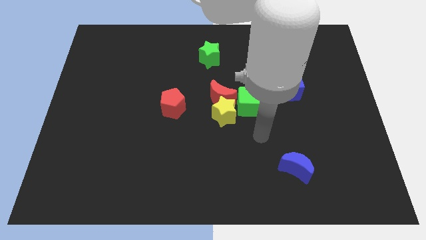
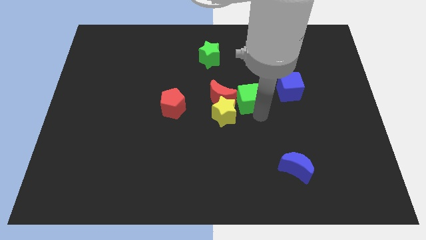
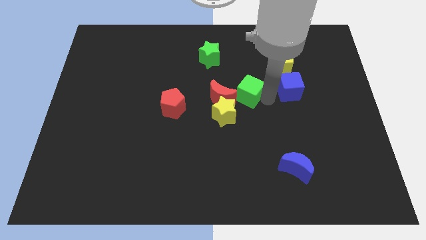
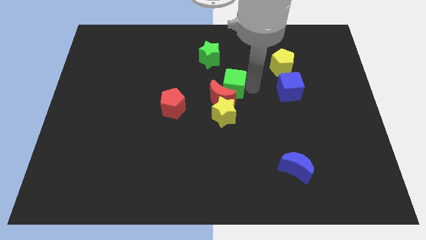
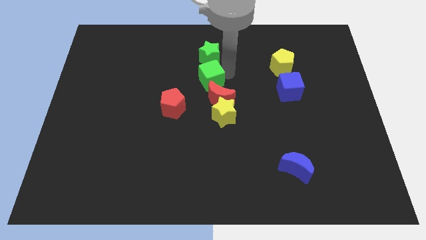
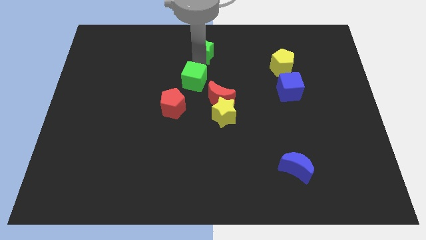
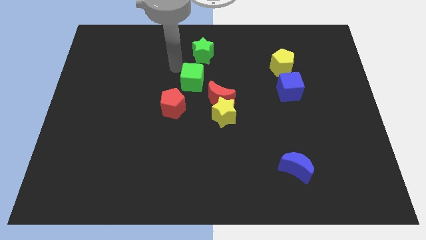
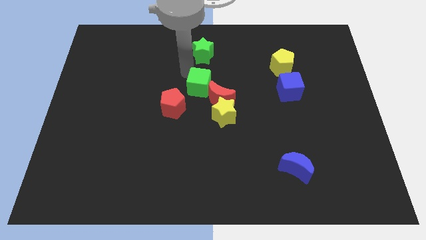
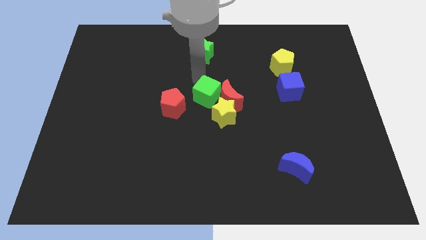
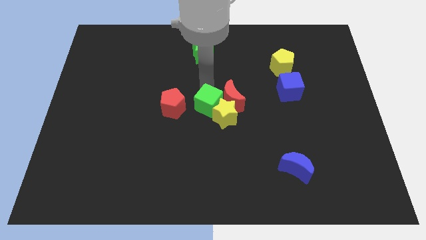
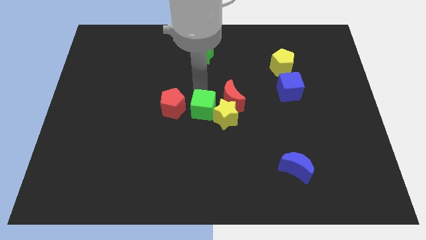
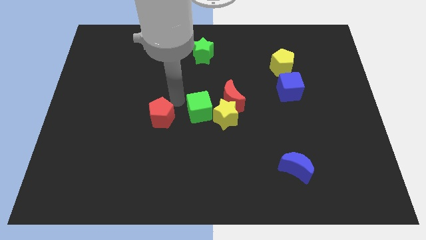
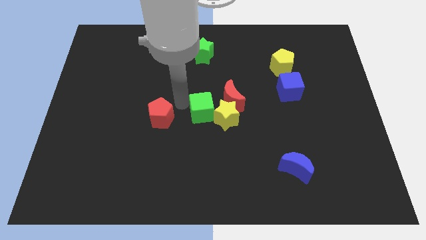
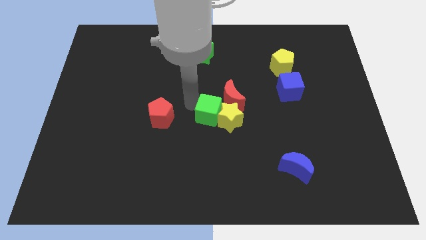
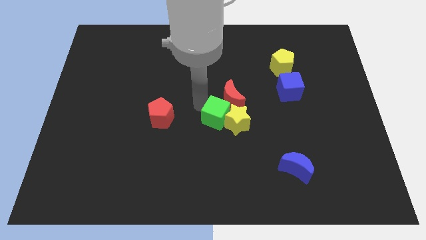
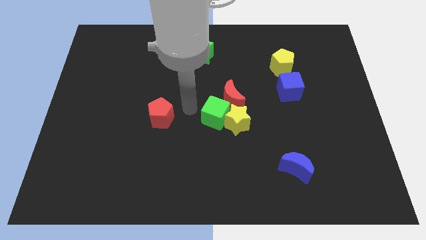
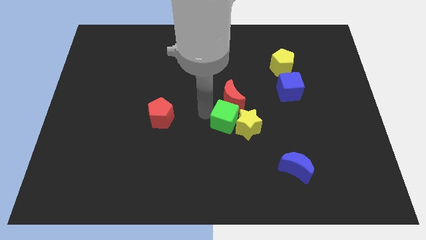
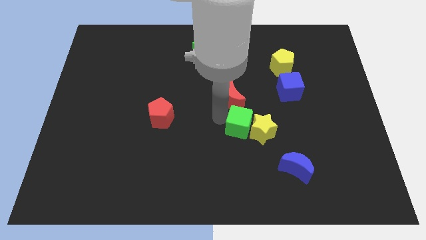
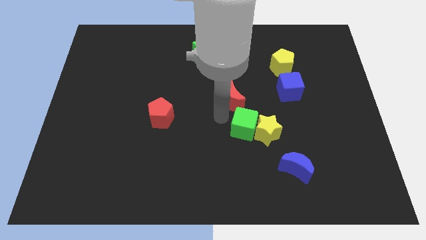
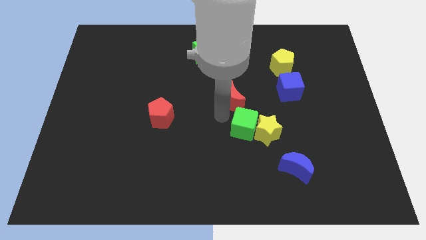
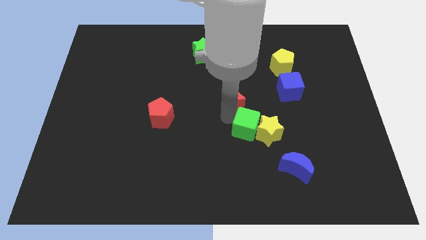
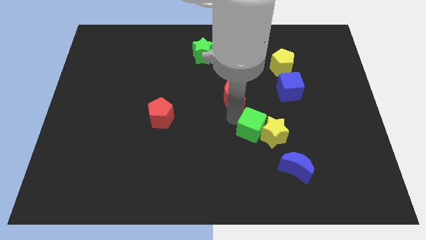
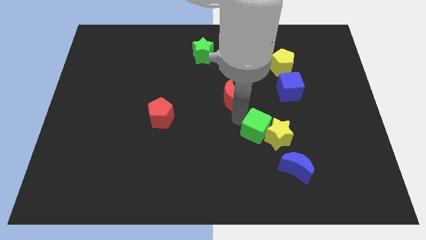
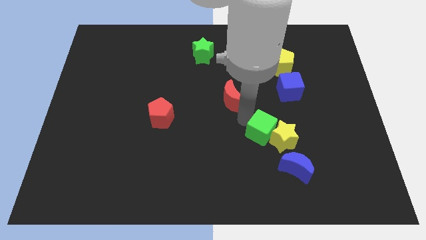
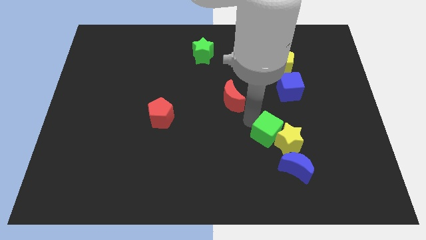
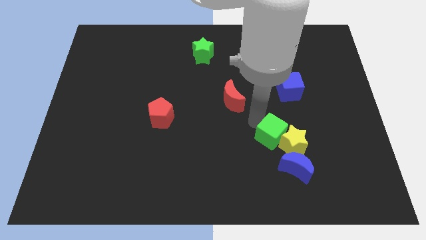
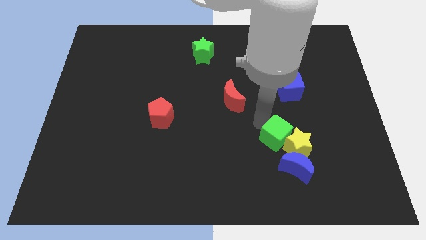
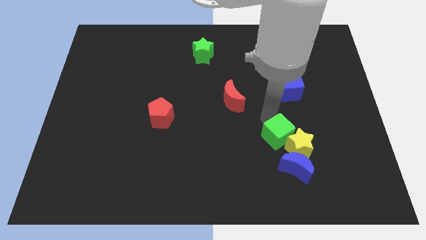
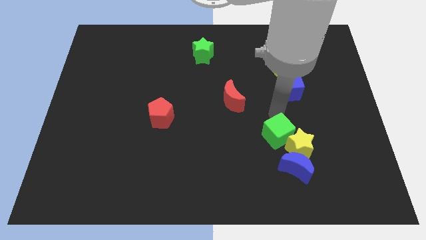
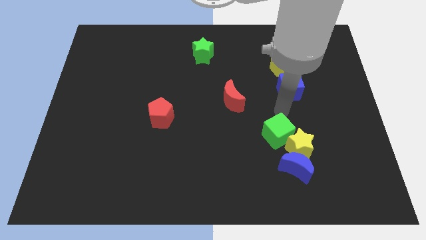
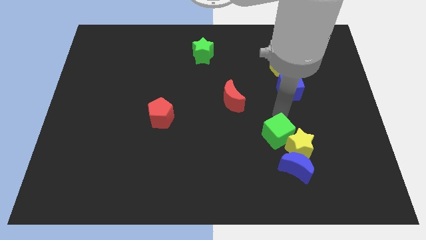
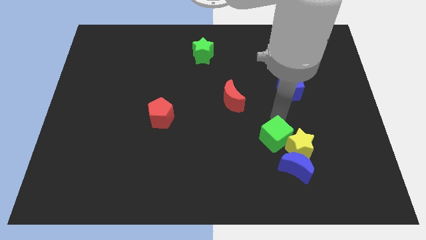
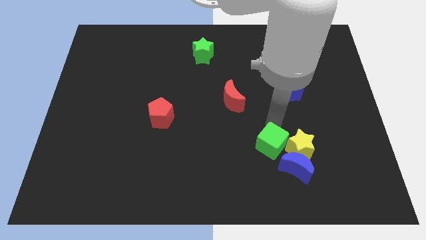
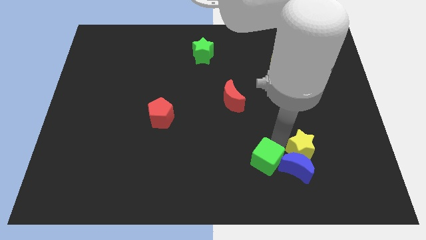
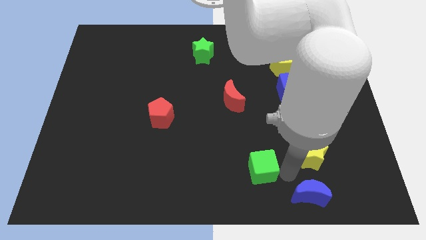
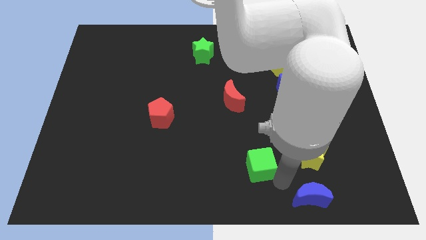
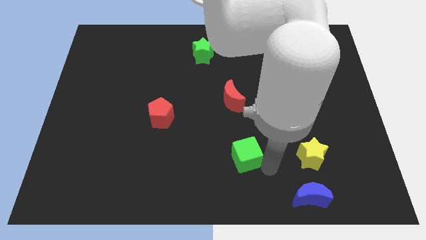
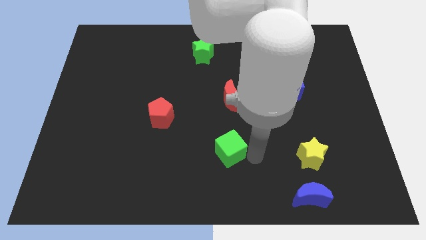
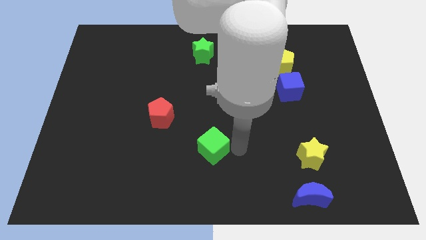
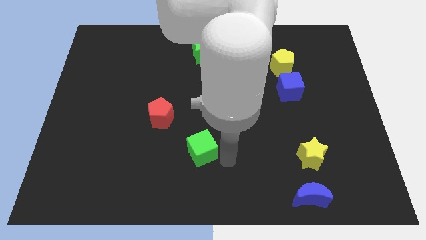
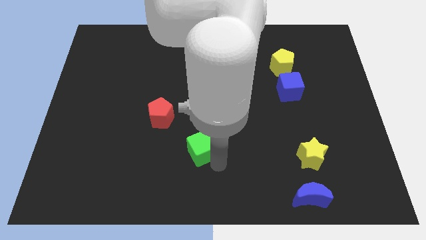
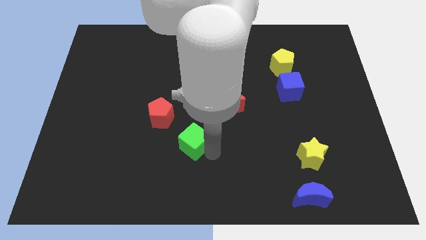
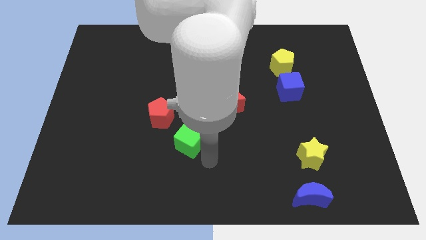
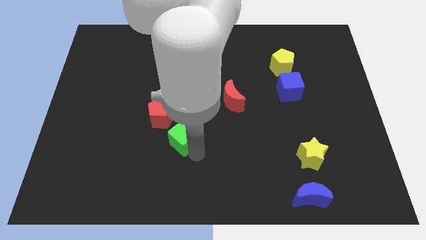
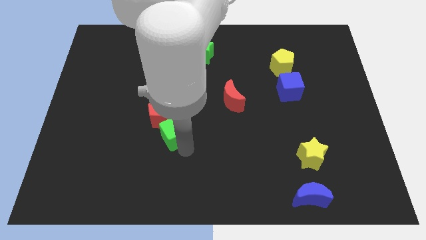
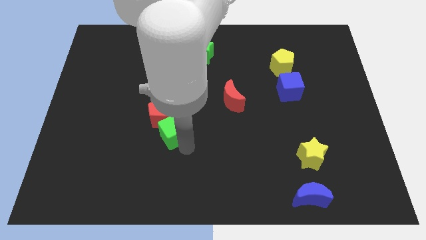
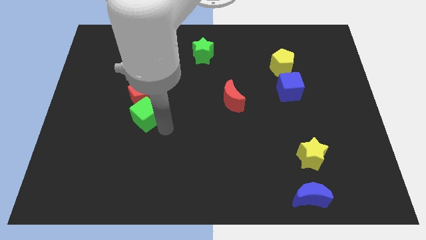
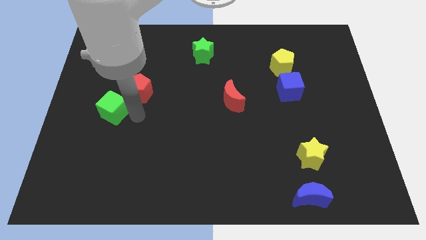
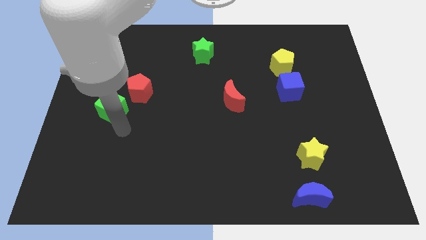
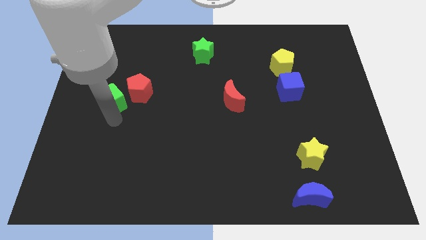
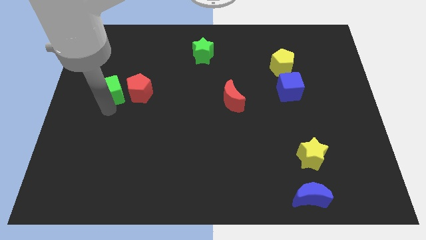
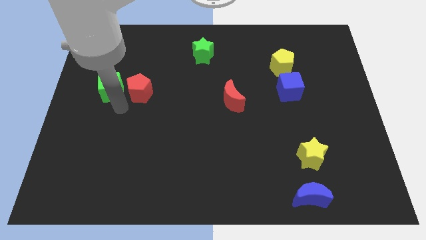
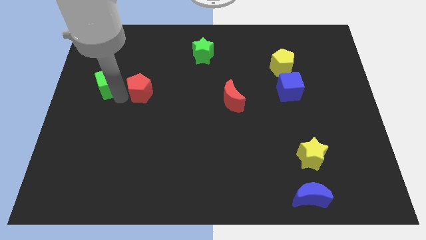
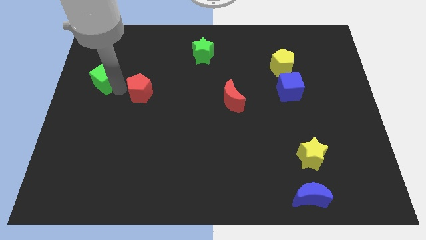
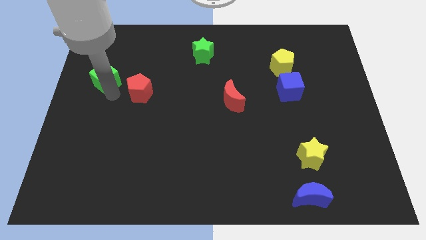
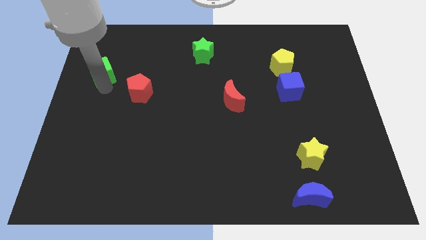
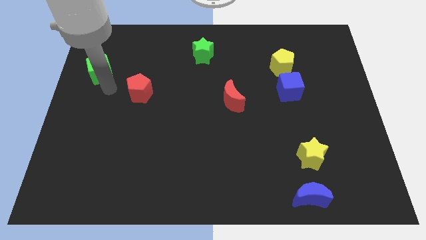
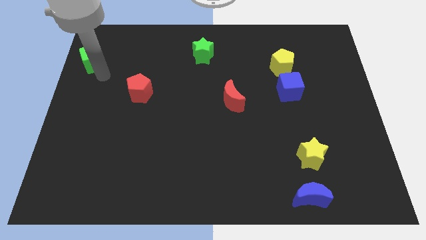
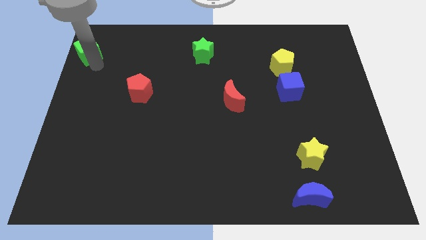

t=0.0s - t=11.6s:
slide the green cube to the upper left corner

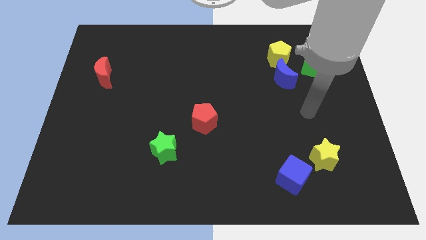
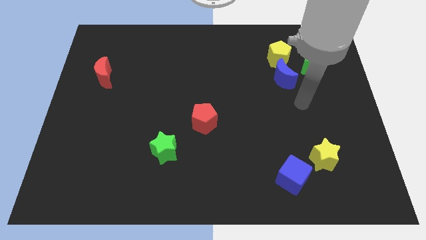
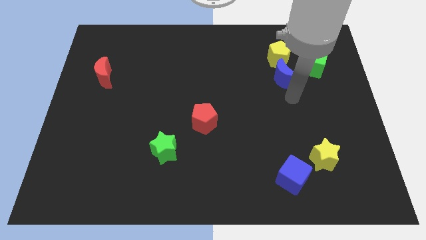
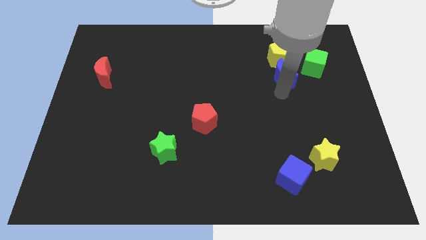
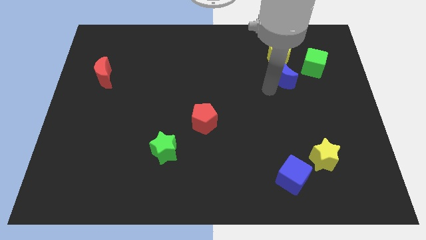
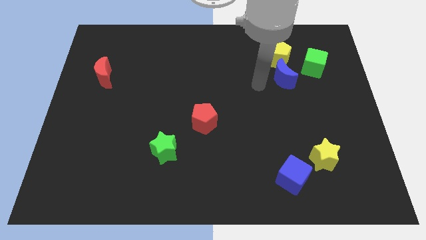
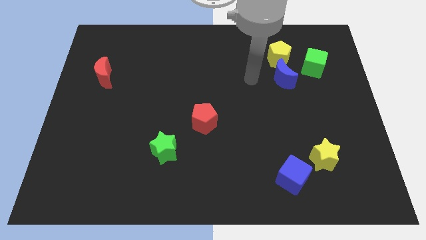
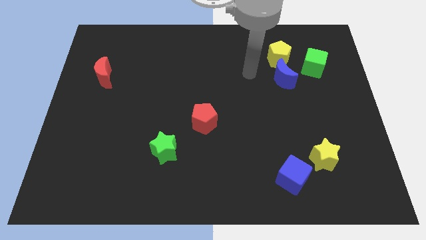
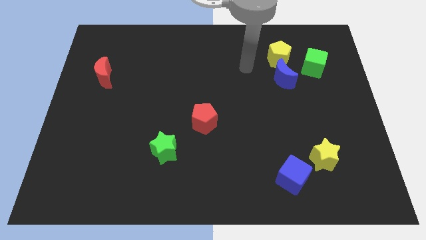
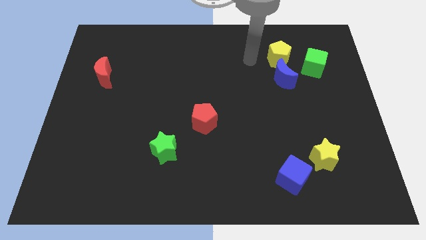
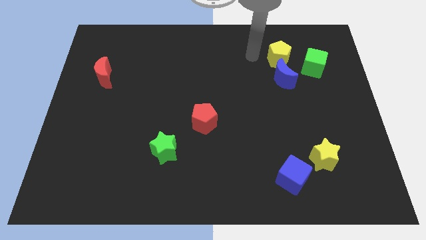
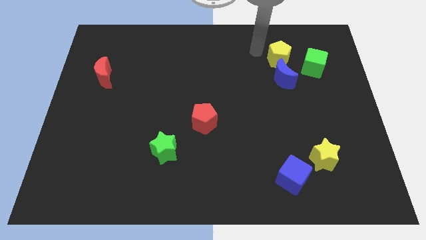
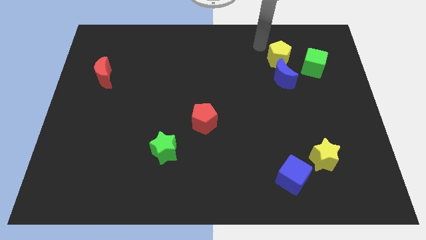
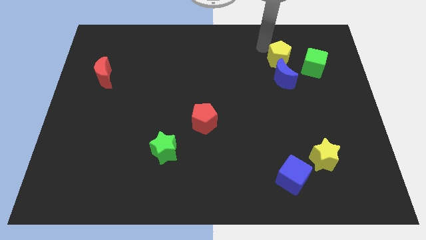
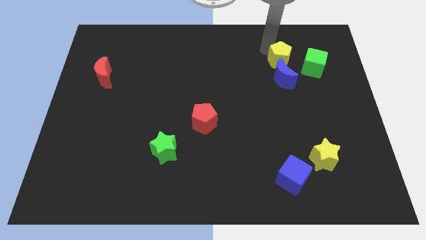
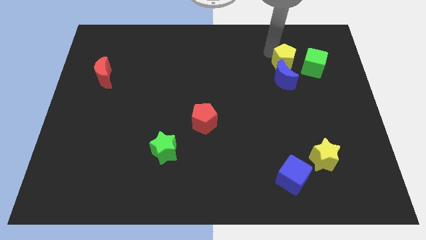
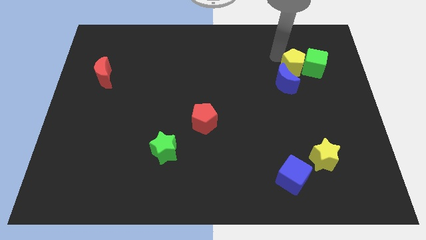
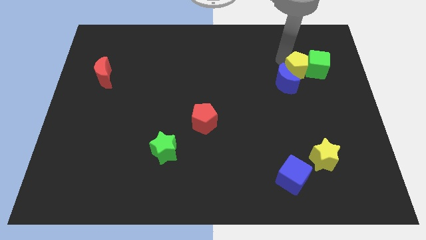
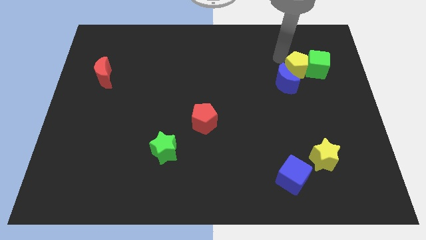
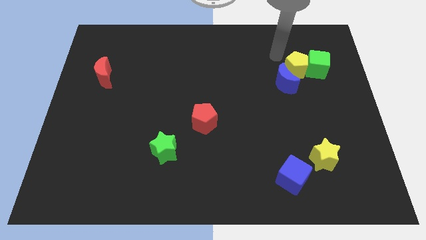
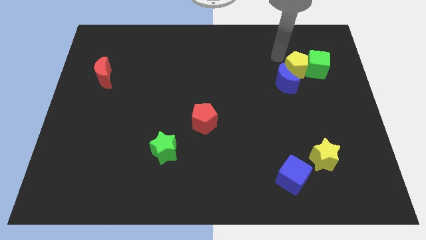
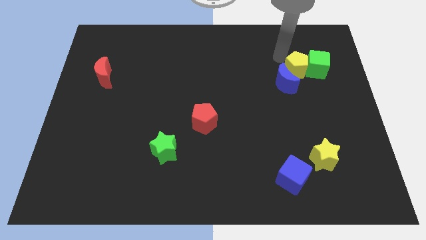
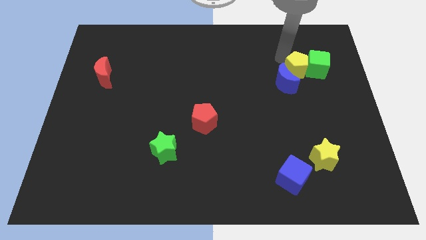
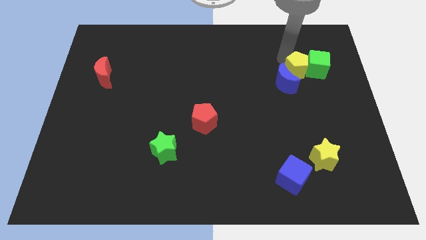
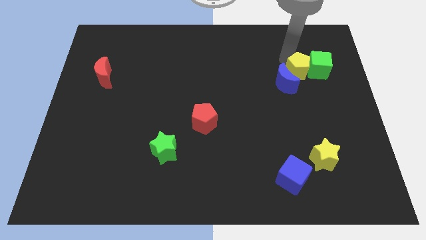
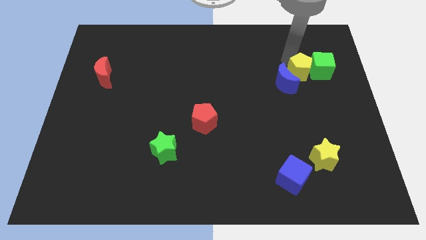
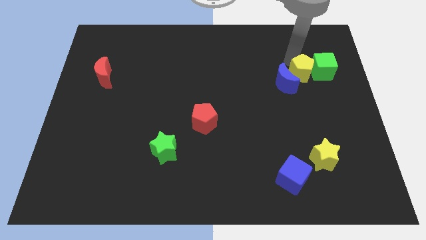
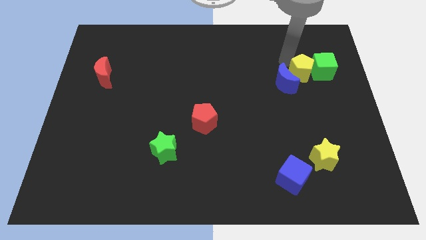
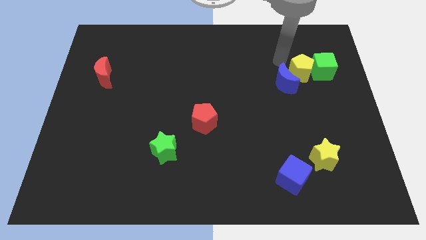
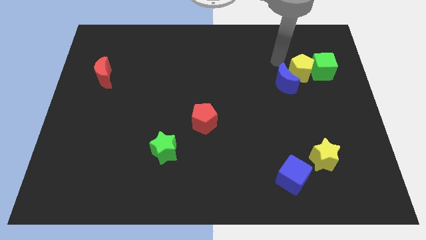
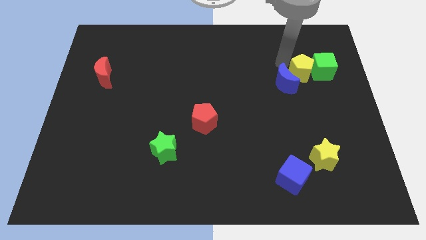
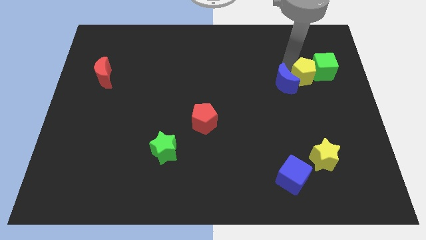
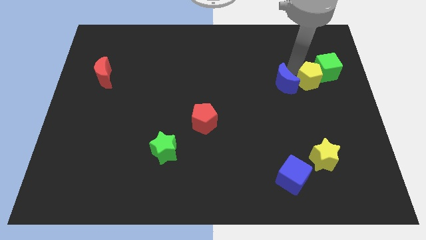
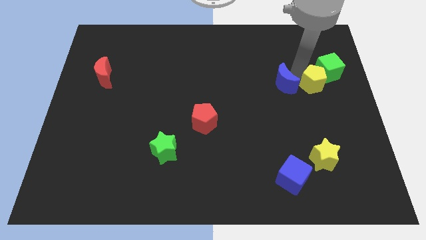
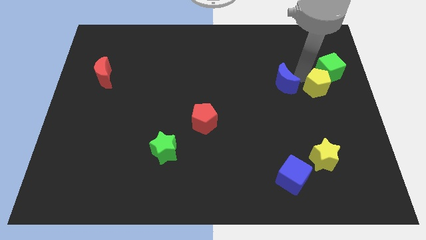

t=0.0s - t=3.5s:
move the yellow pentagon to the right side of the board
